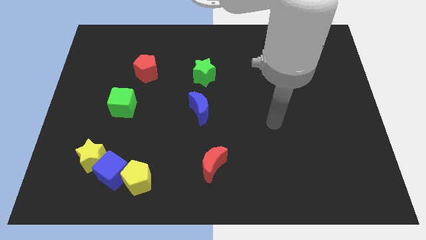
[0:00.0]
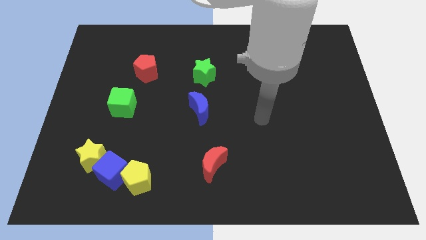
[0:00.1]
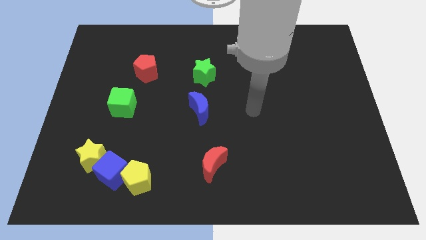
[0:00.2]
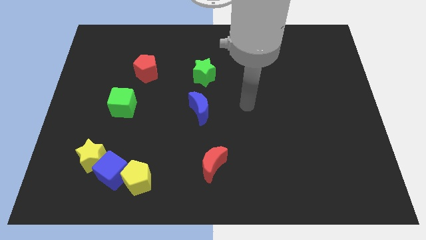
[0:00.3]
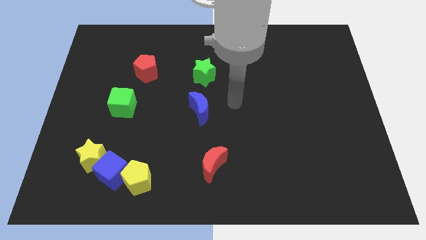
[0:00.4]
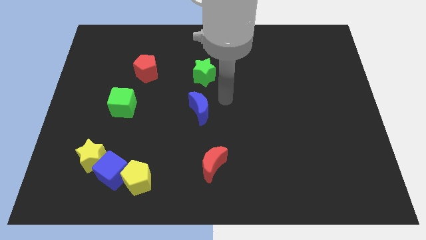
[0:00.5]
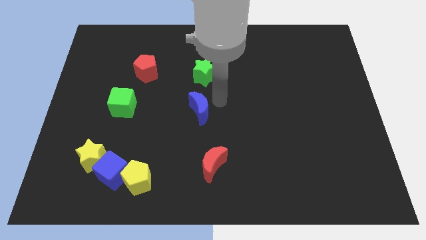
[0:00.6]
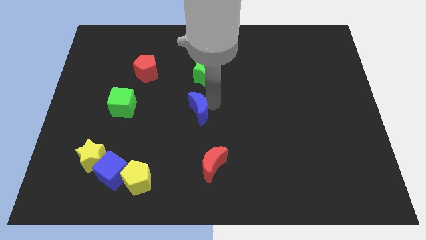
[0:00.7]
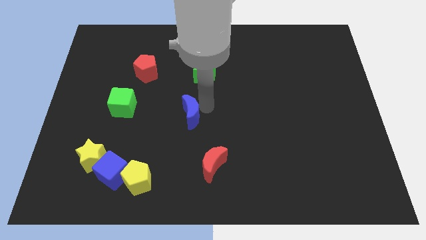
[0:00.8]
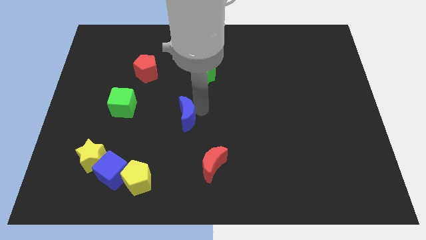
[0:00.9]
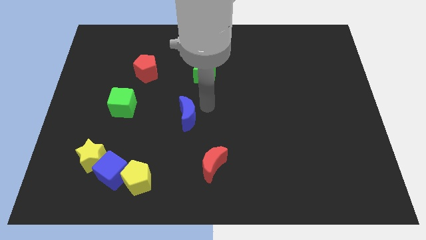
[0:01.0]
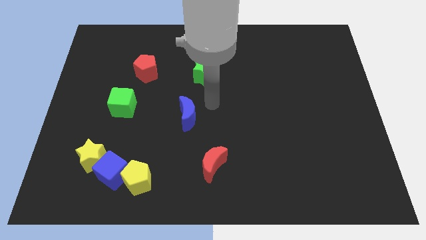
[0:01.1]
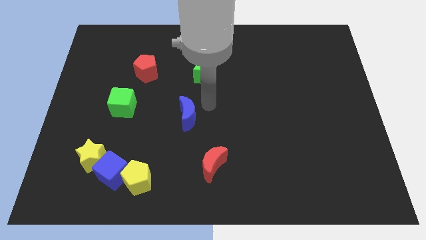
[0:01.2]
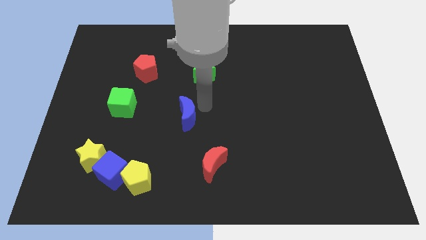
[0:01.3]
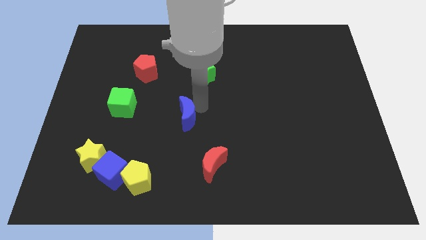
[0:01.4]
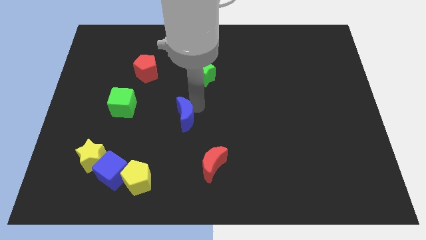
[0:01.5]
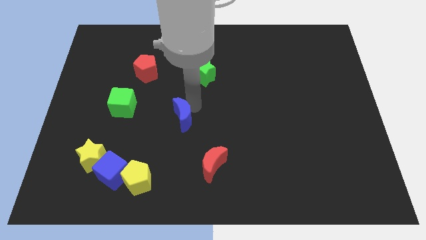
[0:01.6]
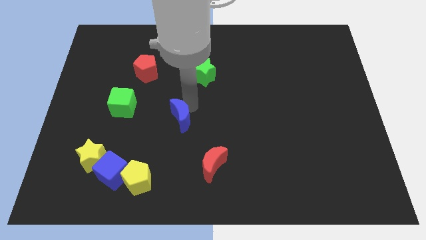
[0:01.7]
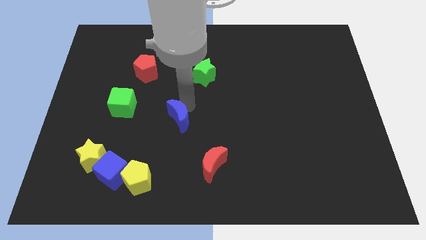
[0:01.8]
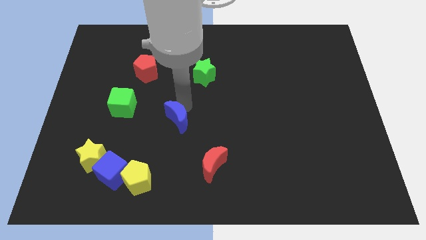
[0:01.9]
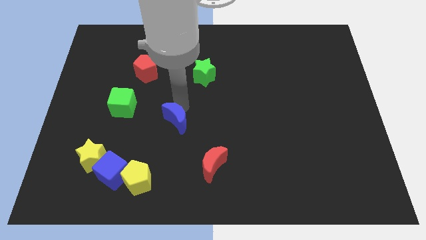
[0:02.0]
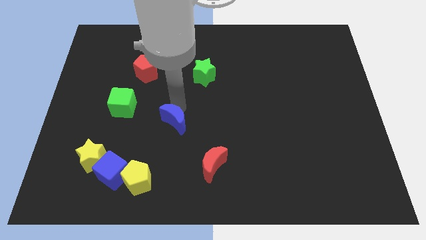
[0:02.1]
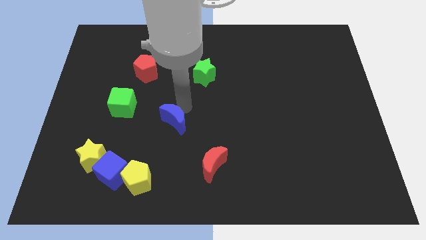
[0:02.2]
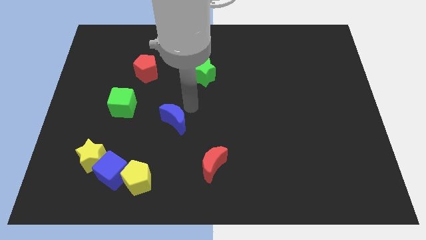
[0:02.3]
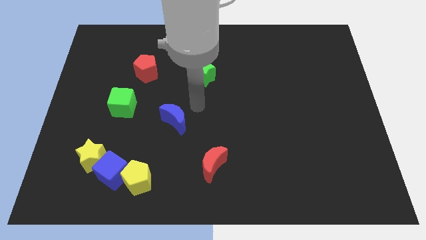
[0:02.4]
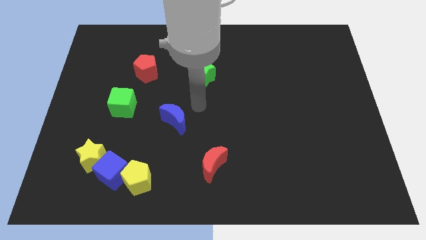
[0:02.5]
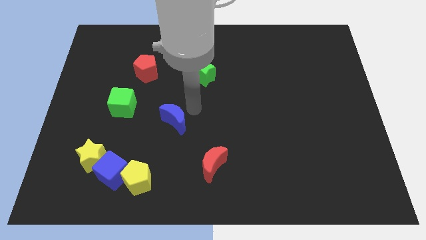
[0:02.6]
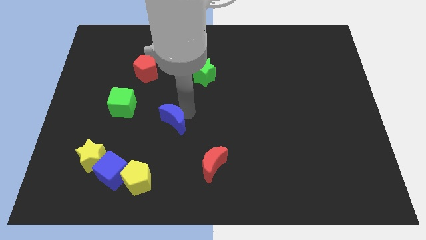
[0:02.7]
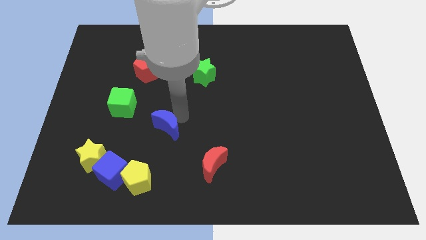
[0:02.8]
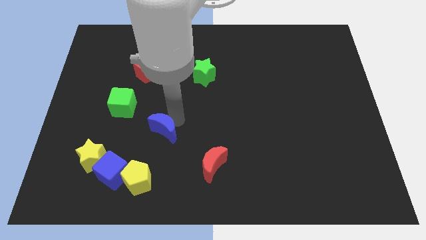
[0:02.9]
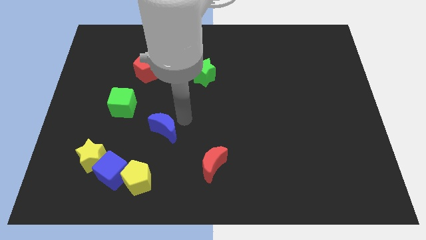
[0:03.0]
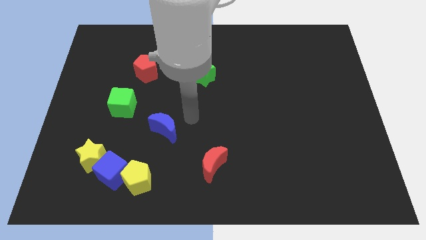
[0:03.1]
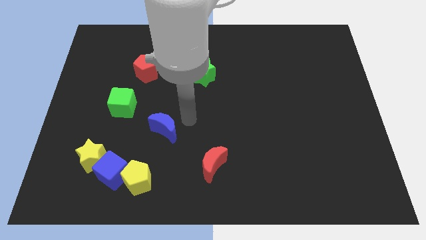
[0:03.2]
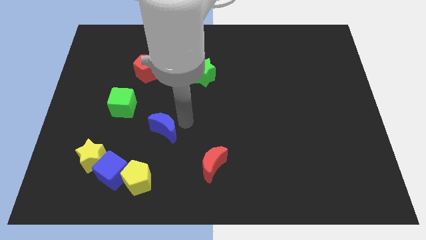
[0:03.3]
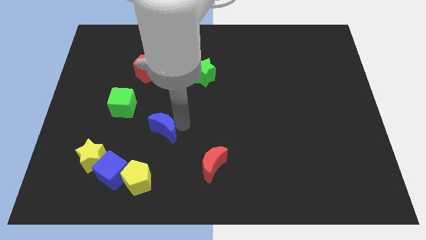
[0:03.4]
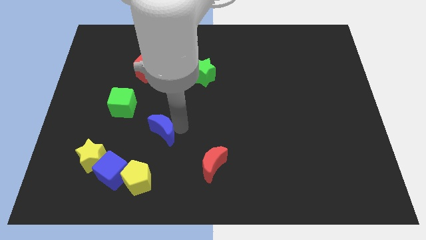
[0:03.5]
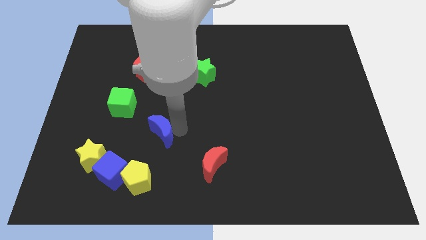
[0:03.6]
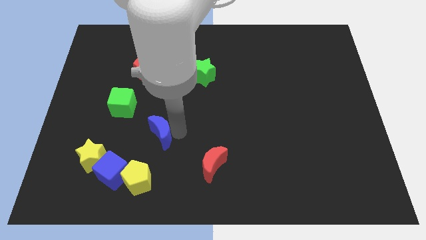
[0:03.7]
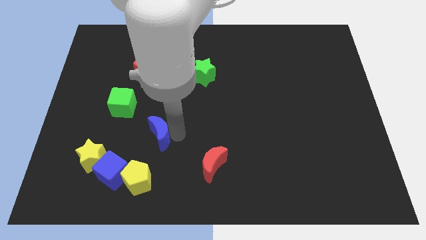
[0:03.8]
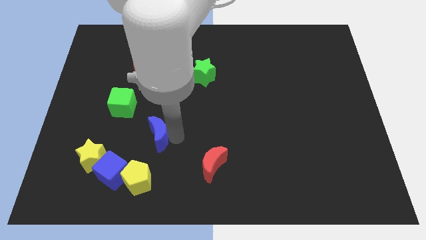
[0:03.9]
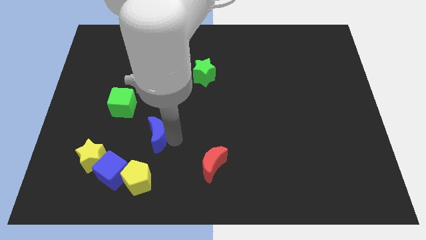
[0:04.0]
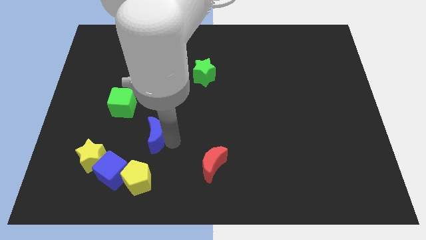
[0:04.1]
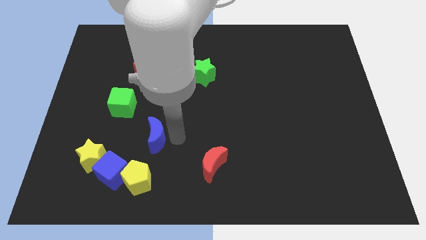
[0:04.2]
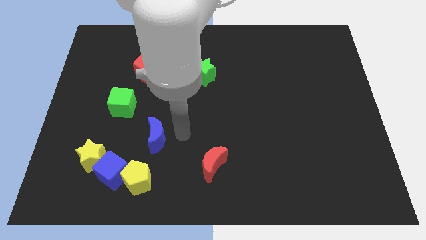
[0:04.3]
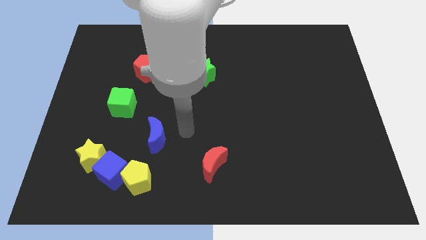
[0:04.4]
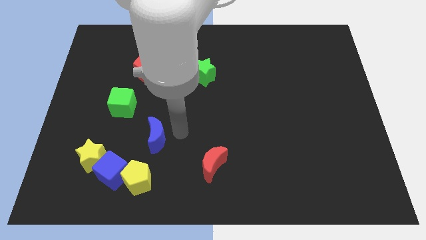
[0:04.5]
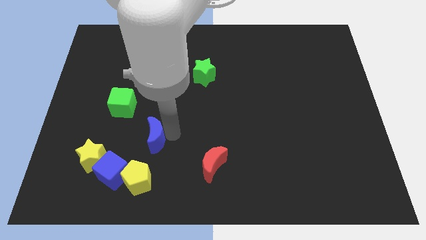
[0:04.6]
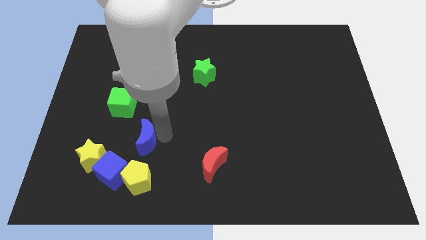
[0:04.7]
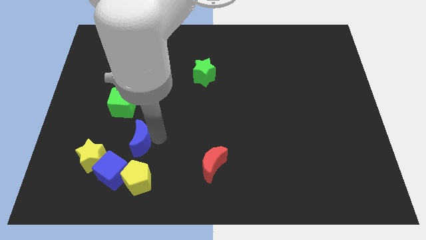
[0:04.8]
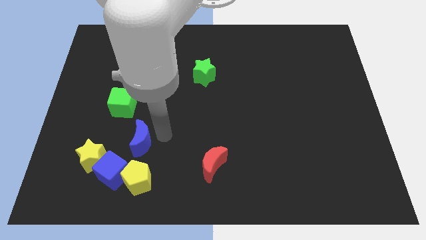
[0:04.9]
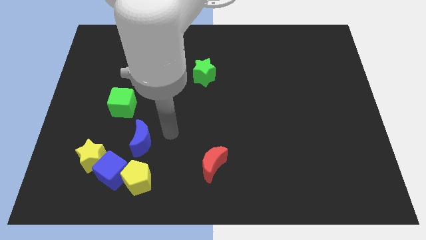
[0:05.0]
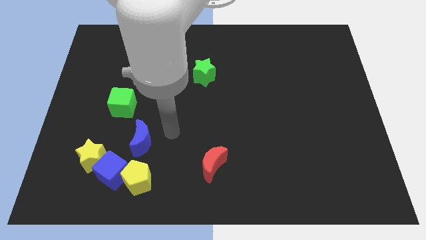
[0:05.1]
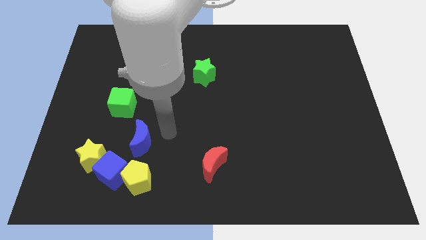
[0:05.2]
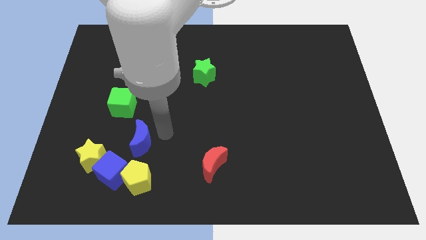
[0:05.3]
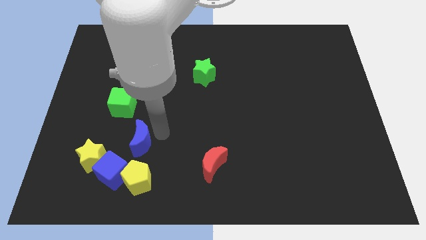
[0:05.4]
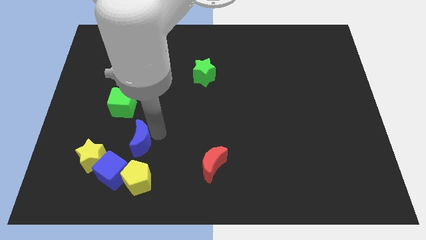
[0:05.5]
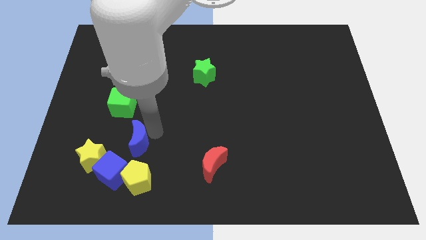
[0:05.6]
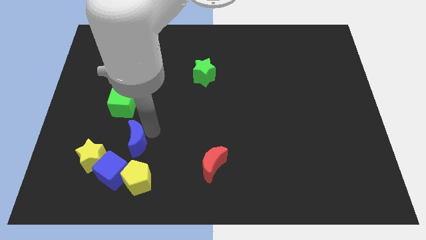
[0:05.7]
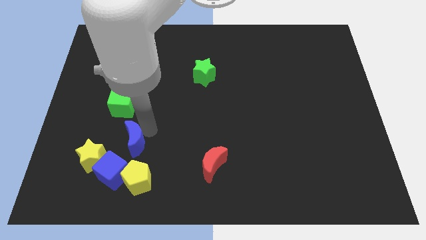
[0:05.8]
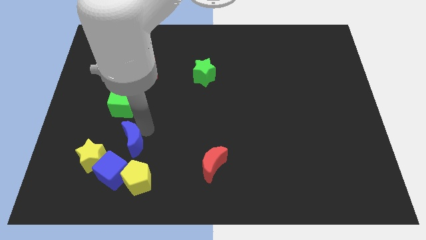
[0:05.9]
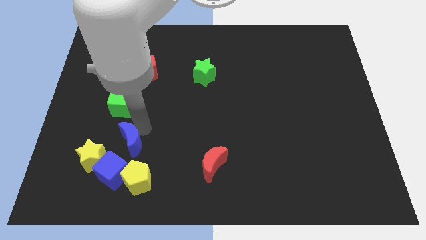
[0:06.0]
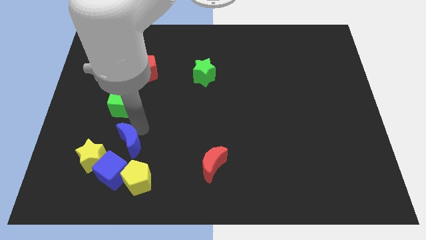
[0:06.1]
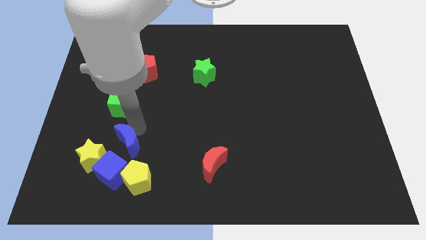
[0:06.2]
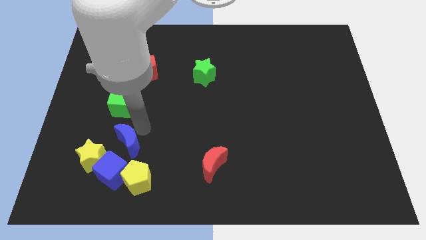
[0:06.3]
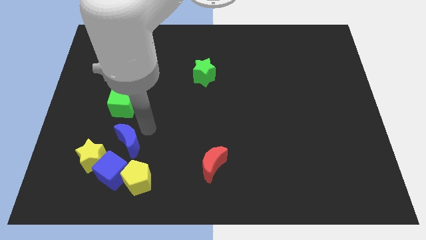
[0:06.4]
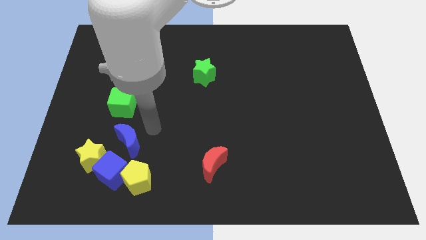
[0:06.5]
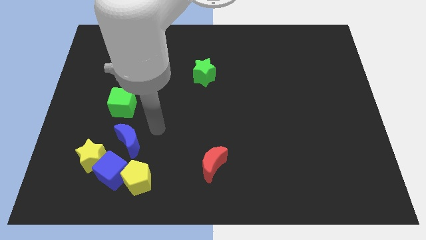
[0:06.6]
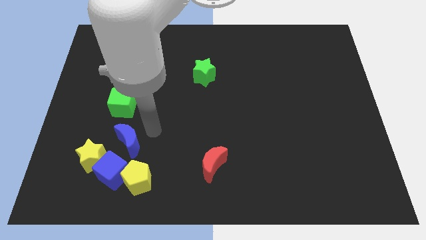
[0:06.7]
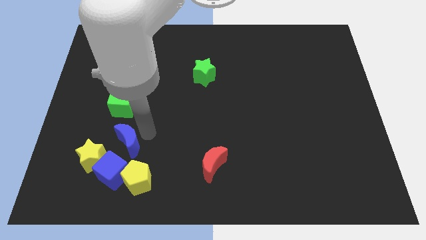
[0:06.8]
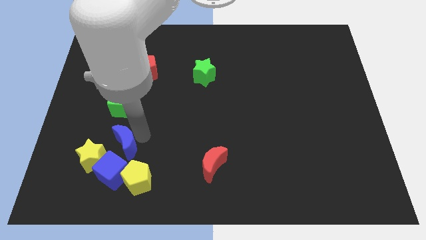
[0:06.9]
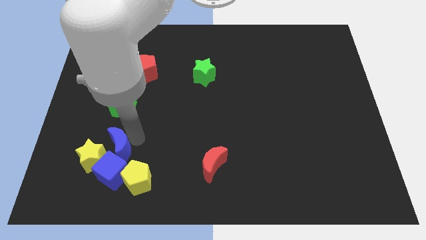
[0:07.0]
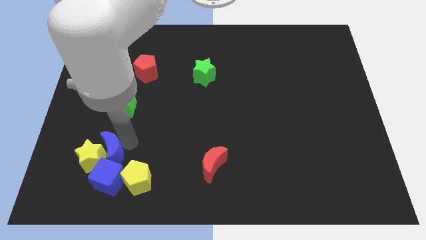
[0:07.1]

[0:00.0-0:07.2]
move the blue moon towards the yellow star
